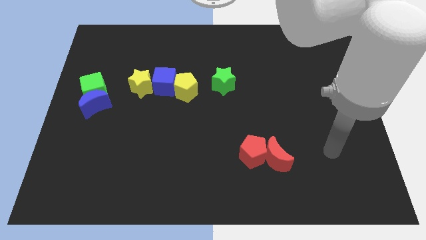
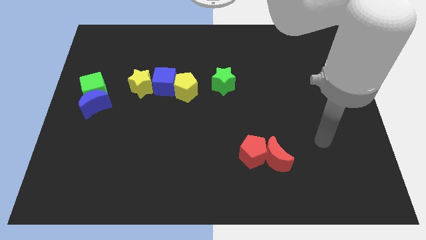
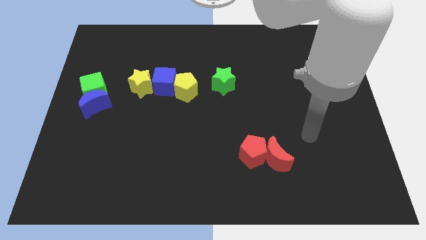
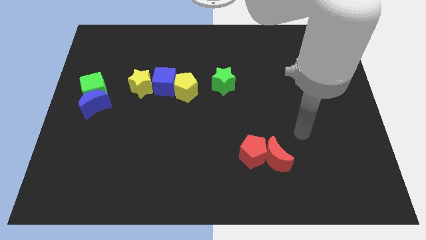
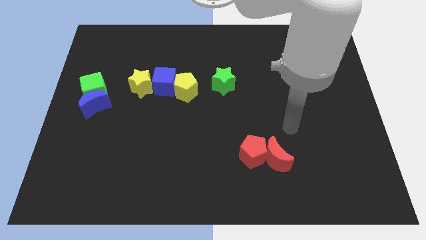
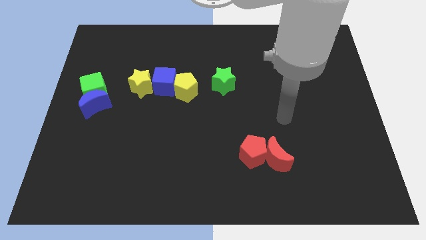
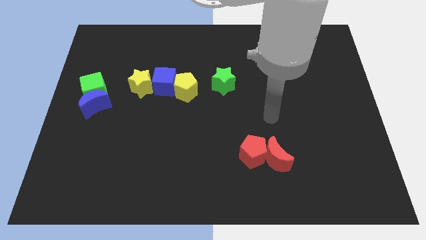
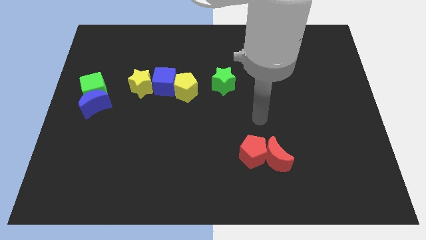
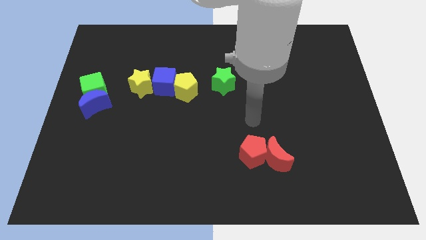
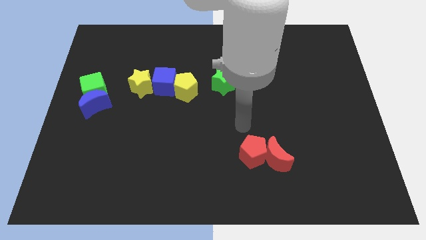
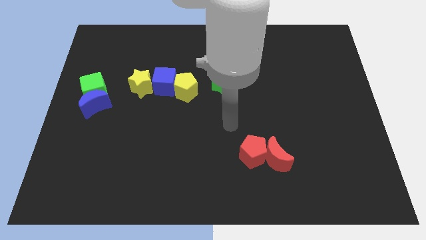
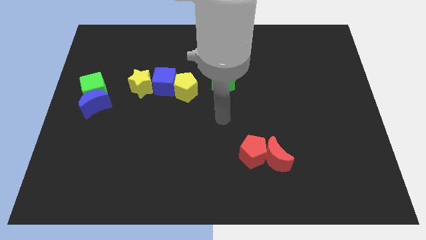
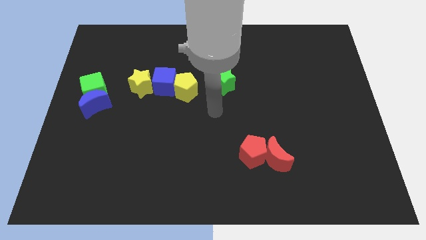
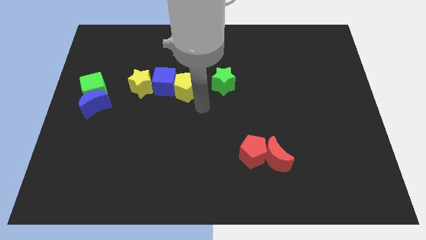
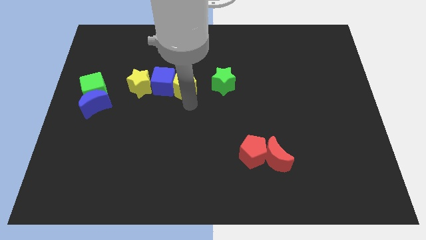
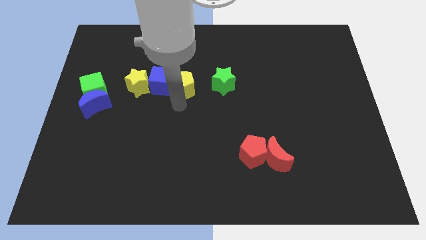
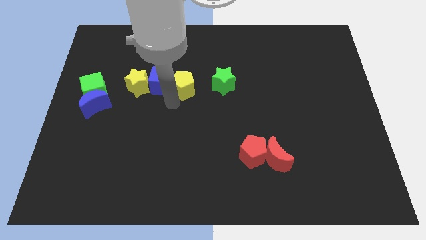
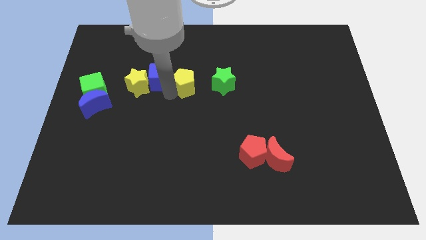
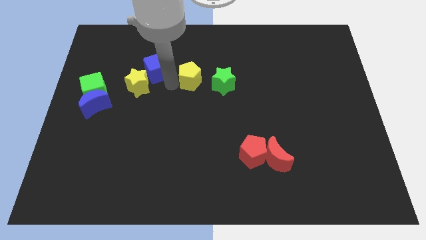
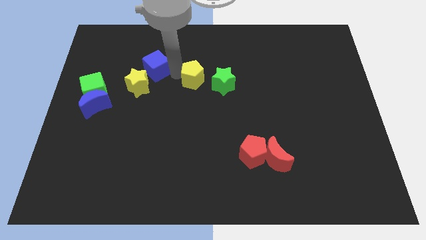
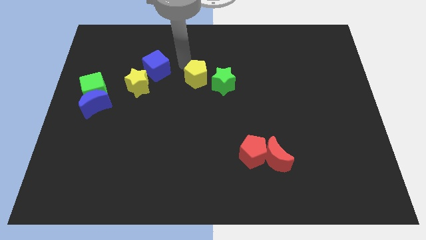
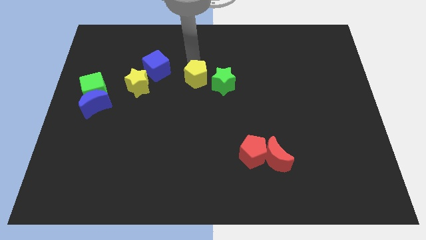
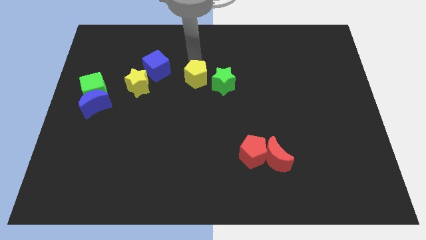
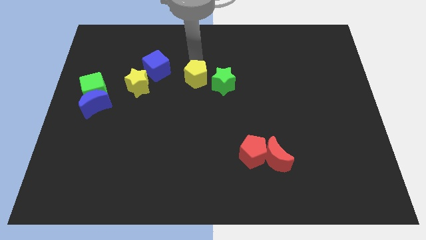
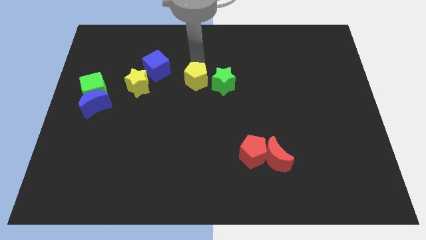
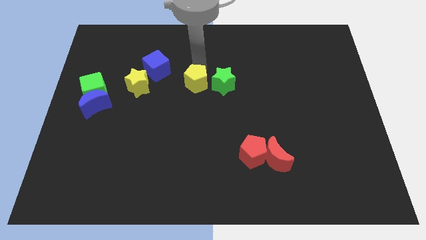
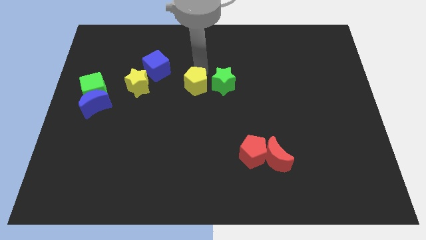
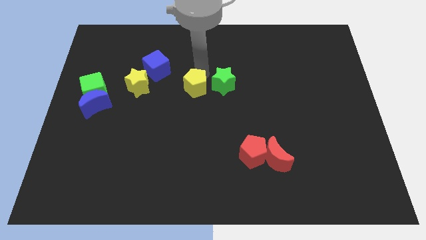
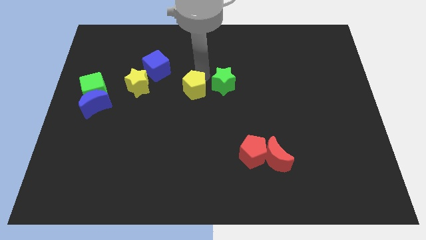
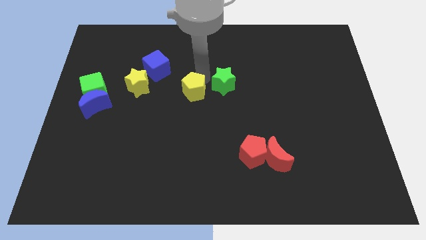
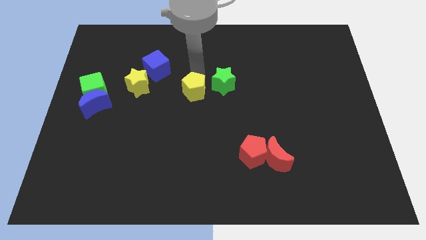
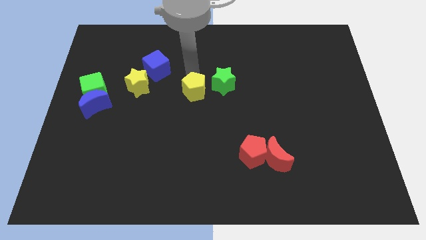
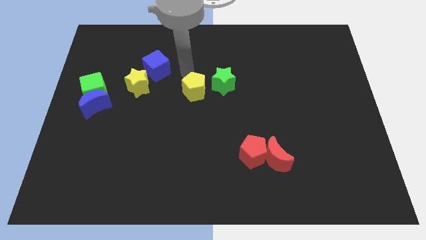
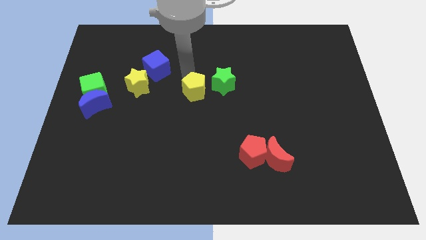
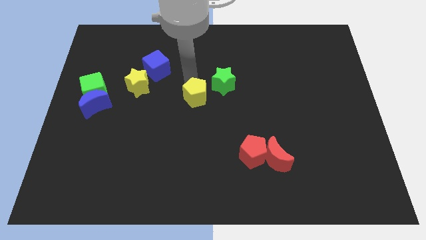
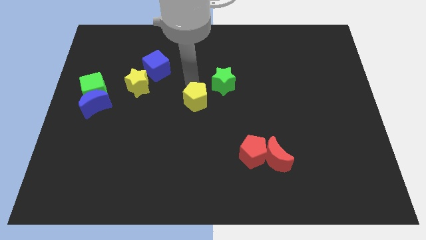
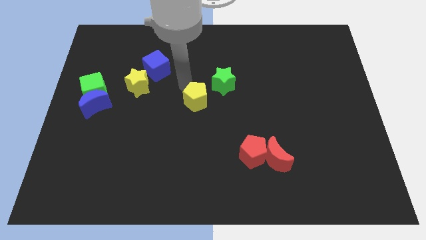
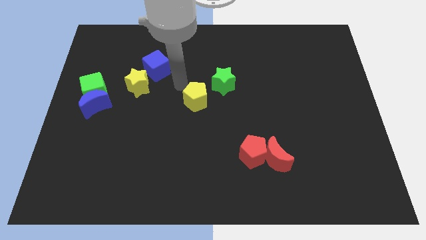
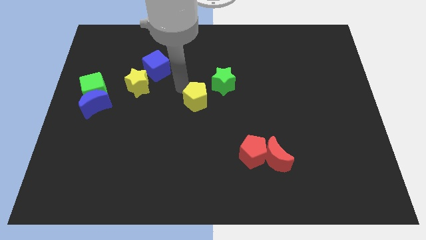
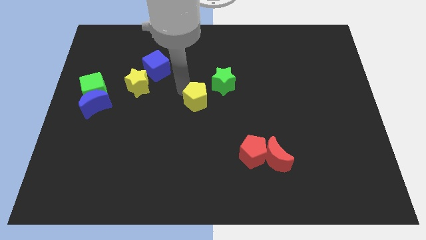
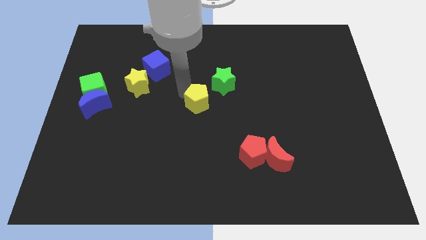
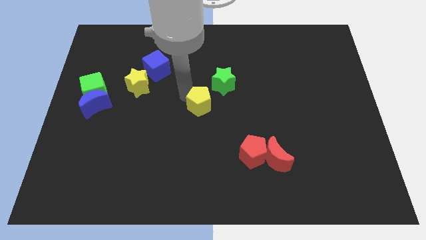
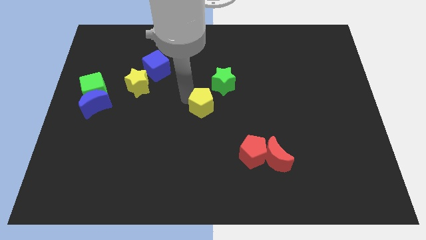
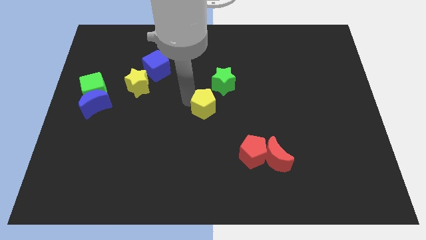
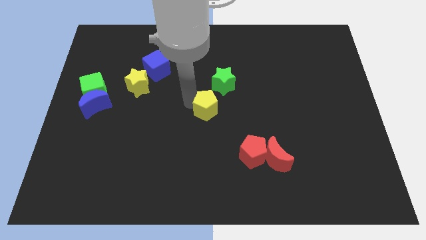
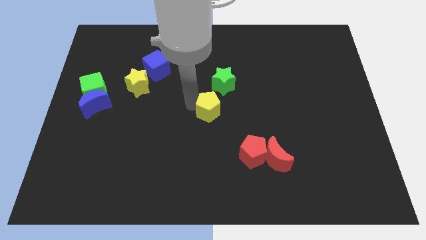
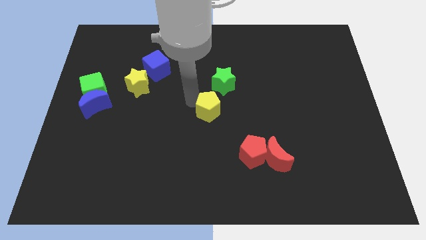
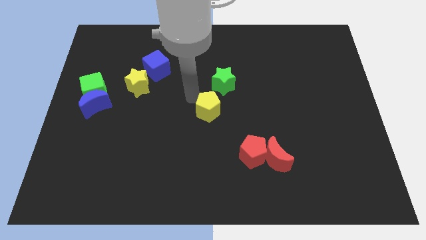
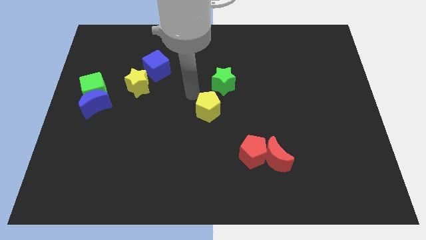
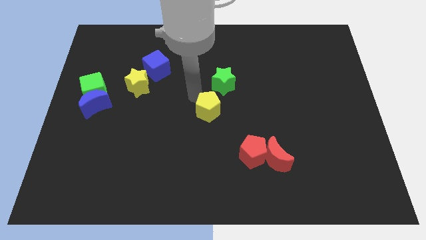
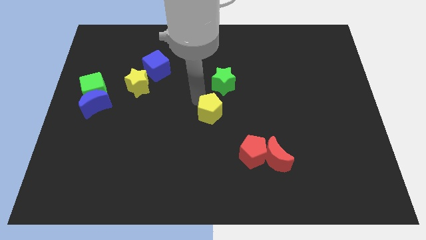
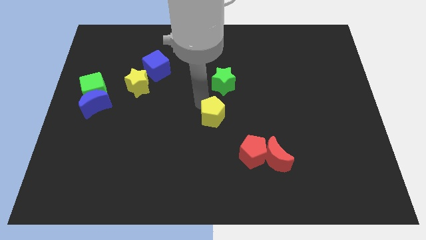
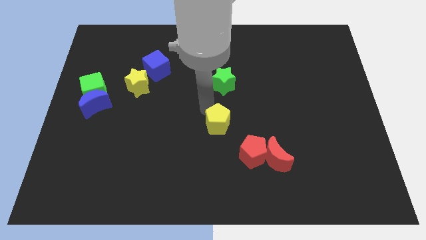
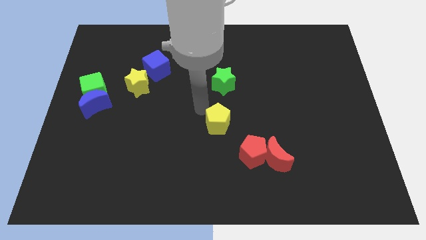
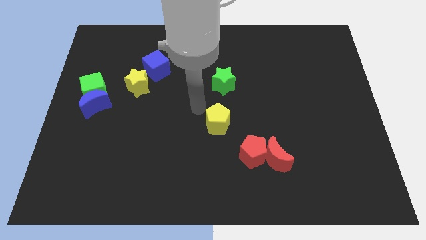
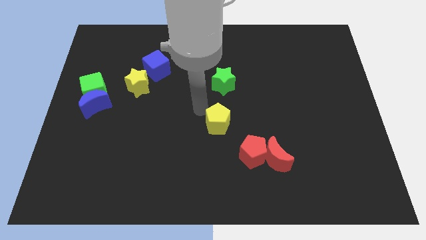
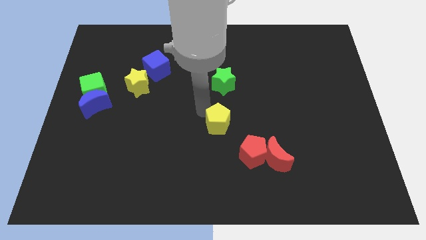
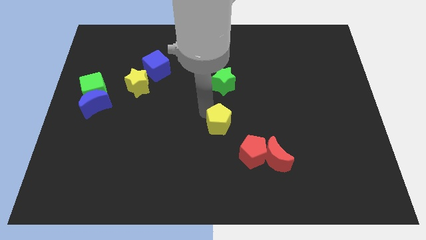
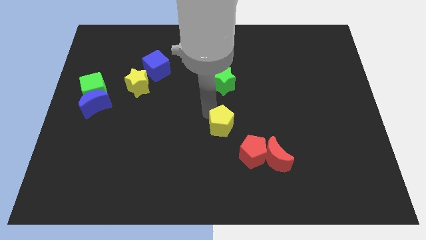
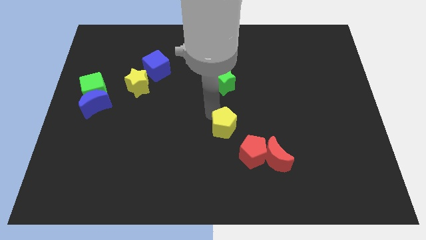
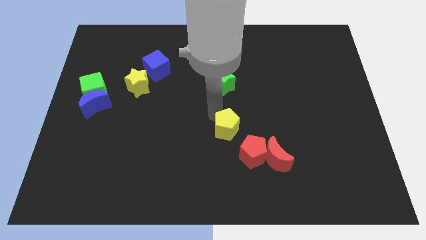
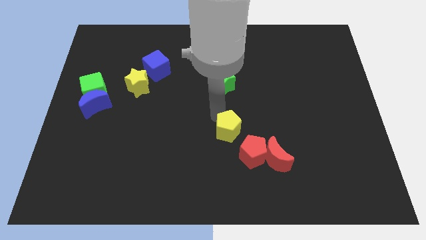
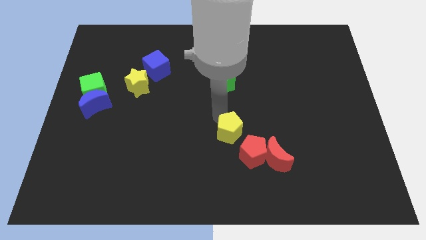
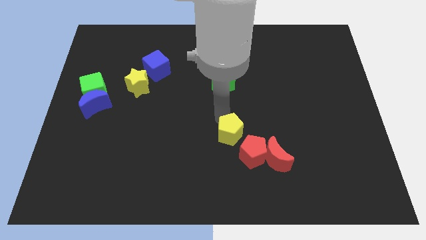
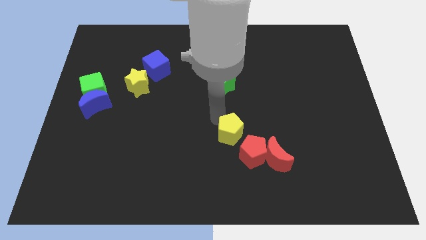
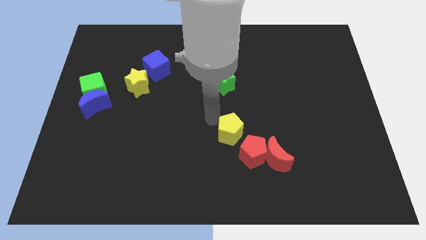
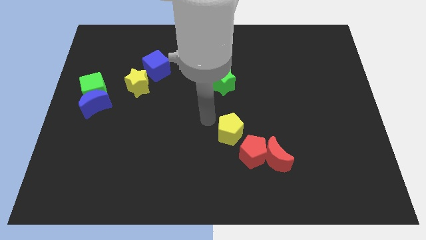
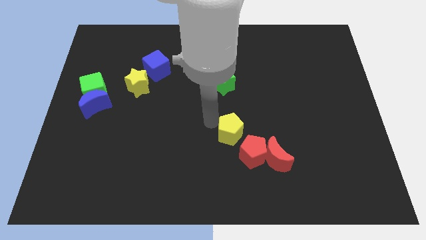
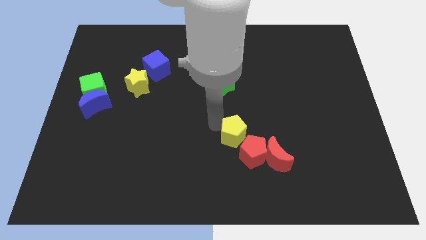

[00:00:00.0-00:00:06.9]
push the yellow pentagon next to the red pentagon

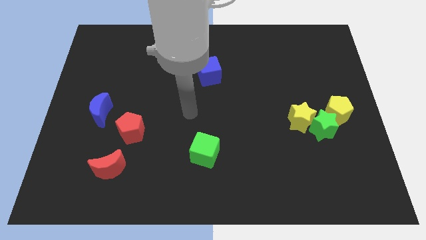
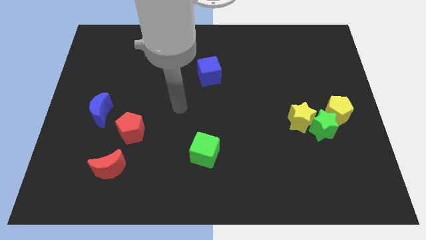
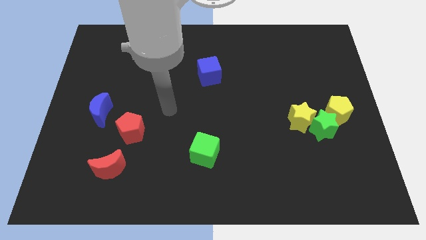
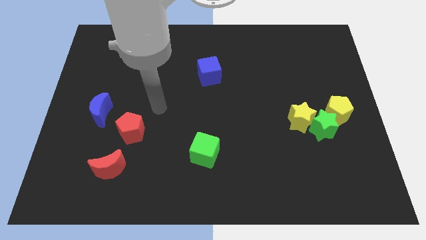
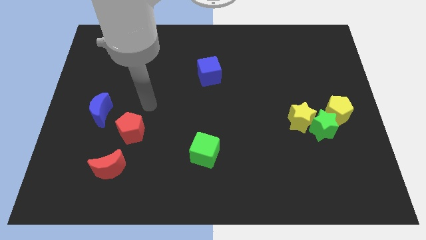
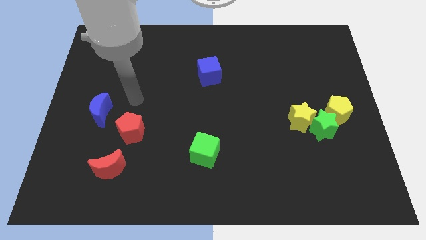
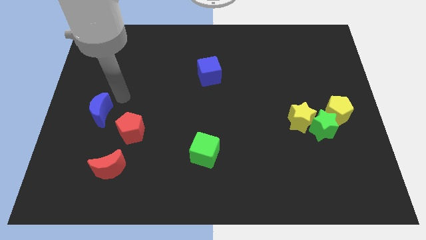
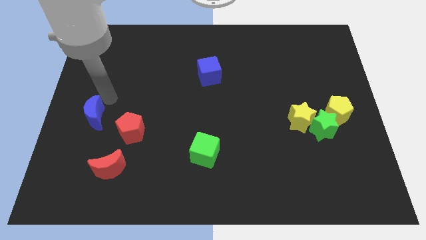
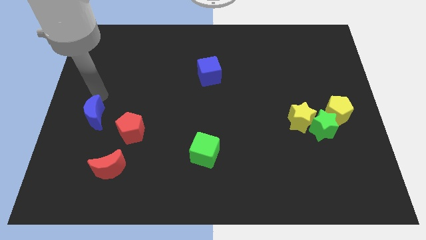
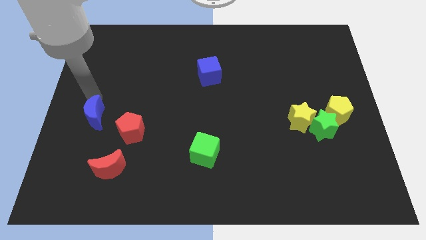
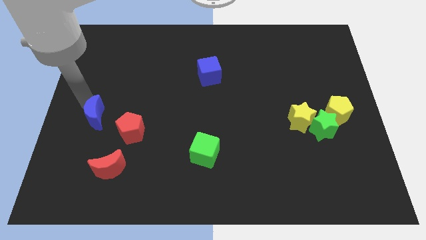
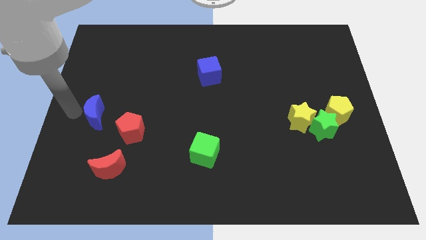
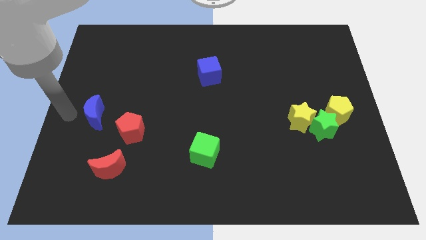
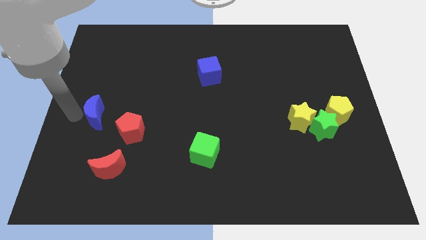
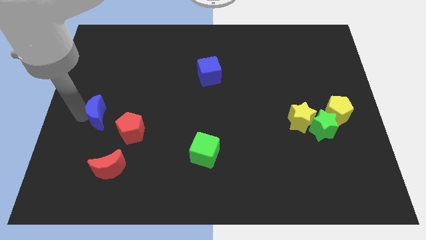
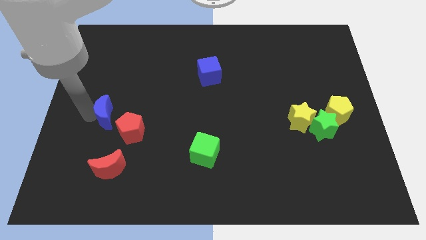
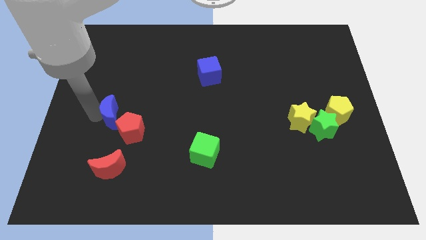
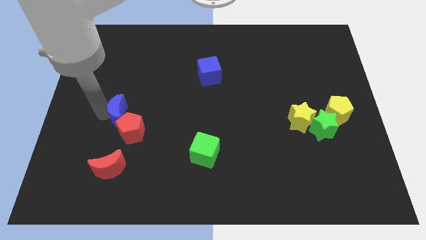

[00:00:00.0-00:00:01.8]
push the blue moon close to the red pentagon
